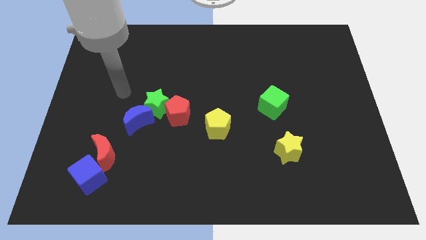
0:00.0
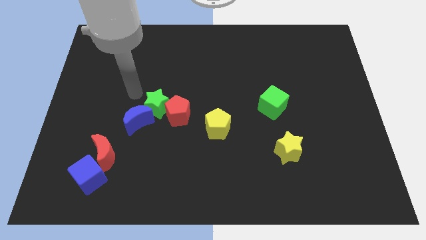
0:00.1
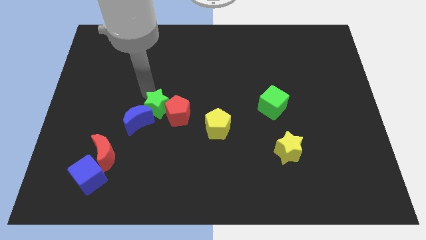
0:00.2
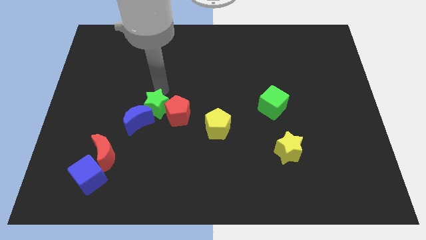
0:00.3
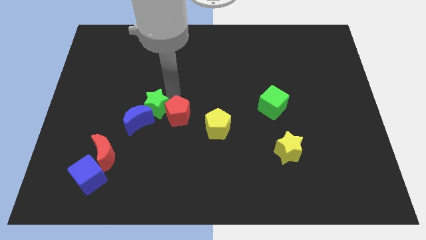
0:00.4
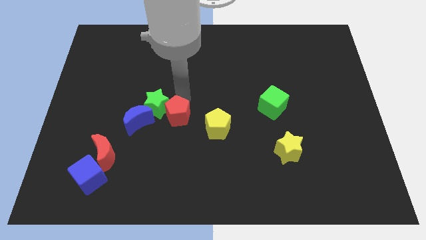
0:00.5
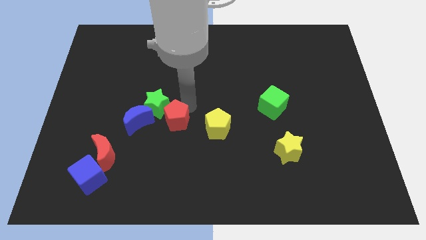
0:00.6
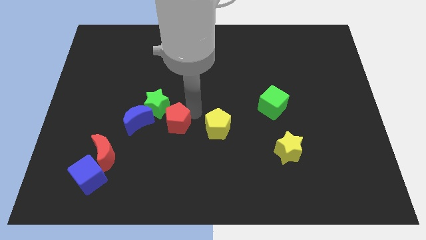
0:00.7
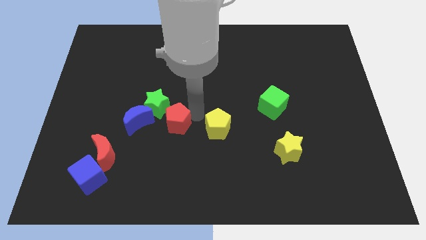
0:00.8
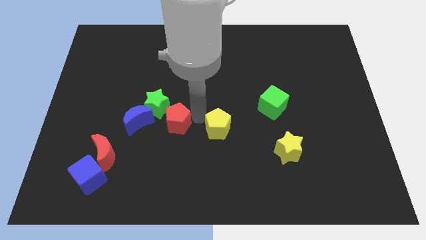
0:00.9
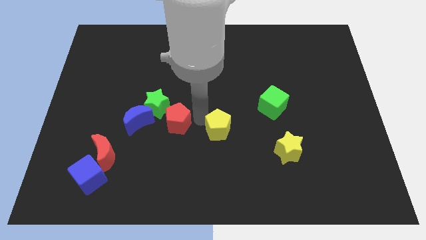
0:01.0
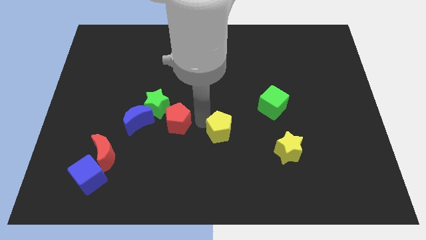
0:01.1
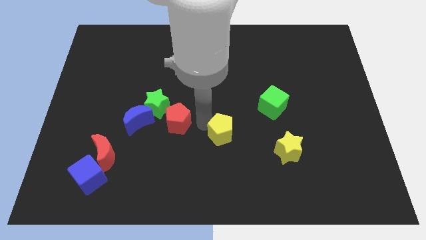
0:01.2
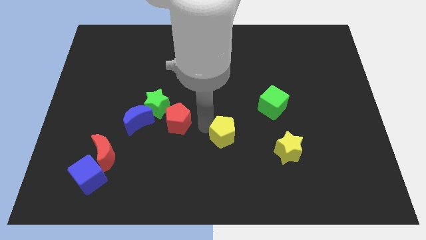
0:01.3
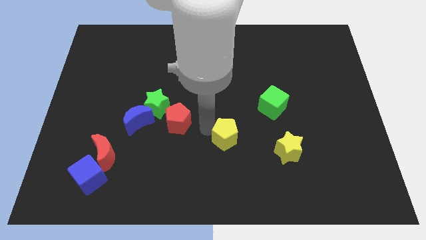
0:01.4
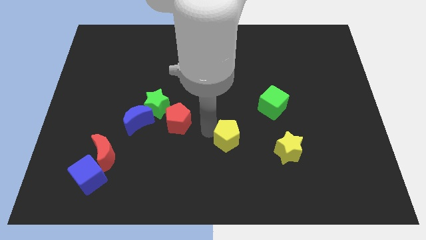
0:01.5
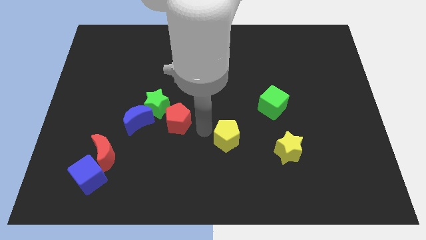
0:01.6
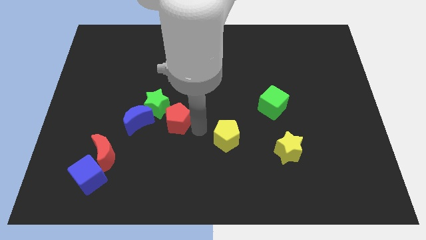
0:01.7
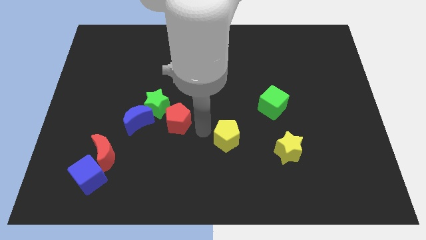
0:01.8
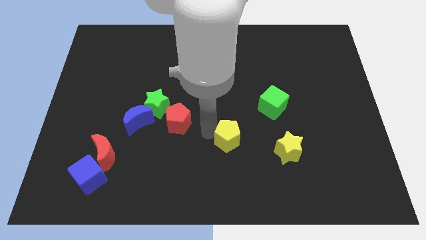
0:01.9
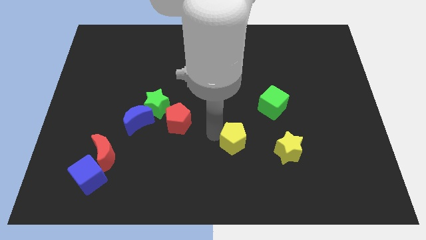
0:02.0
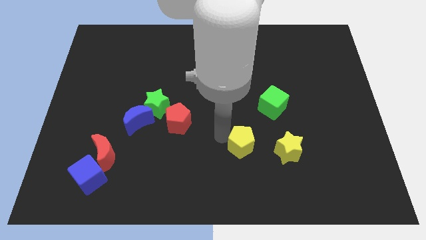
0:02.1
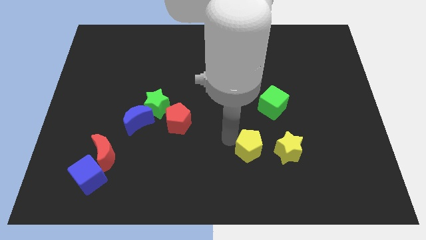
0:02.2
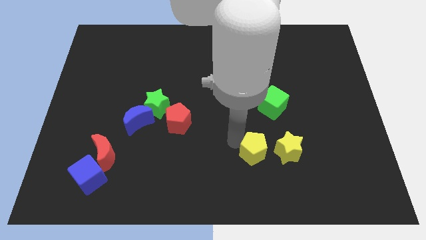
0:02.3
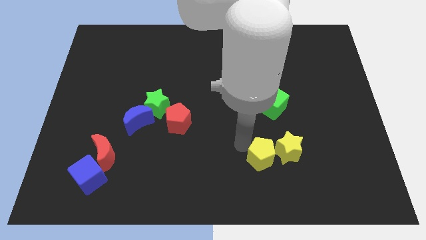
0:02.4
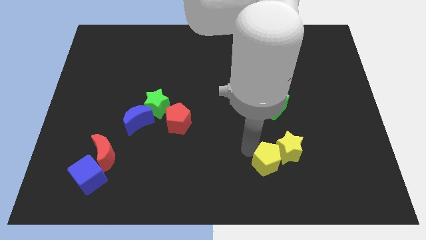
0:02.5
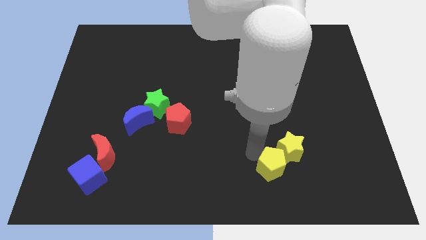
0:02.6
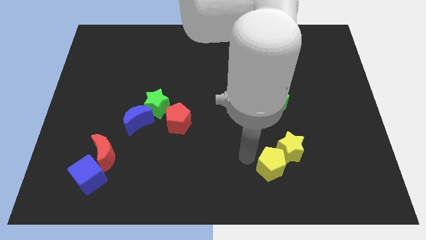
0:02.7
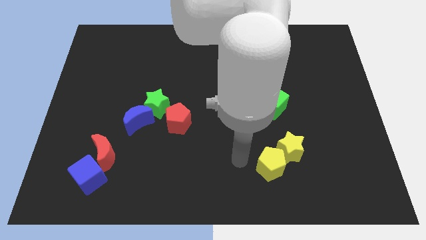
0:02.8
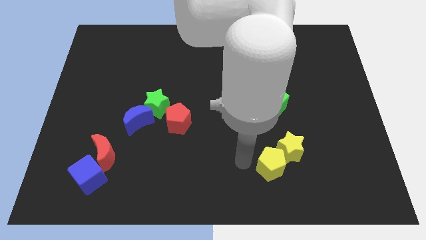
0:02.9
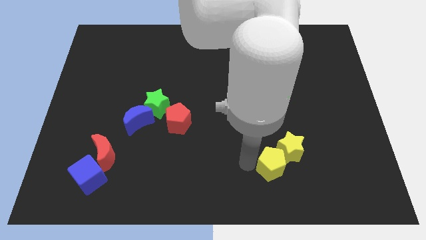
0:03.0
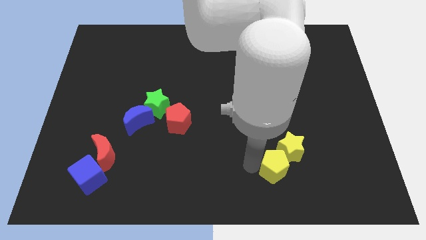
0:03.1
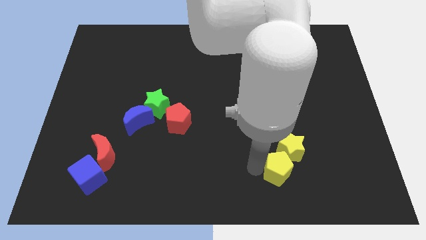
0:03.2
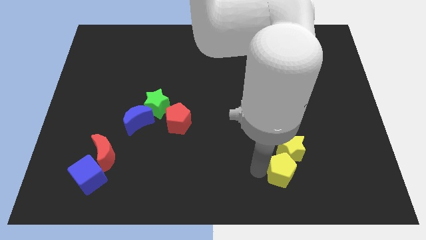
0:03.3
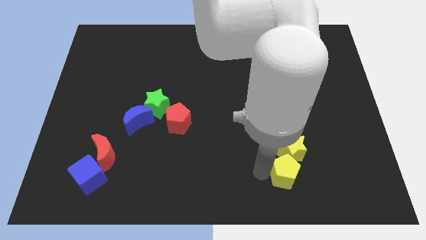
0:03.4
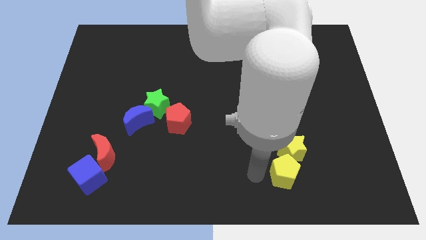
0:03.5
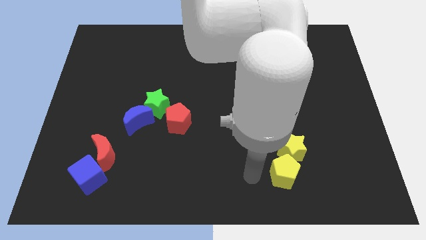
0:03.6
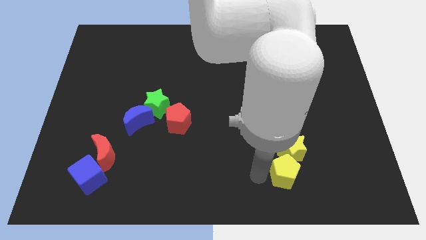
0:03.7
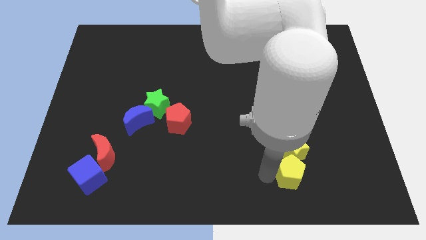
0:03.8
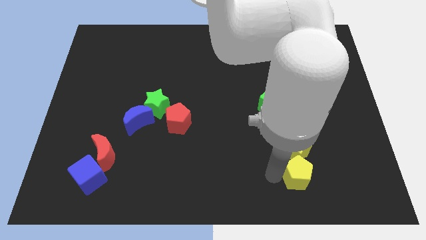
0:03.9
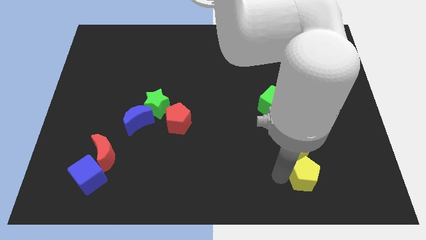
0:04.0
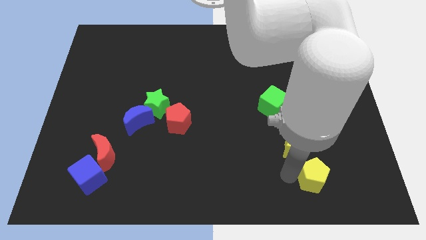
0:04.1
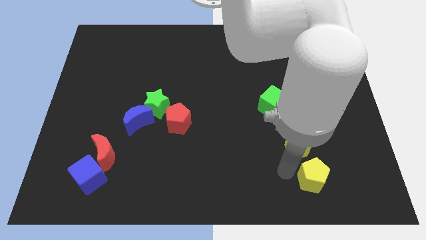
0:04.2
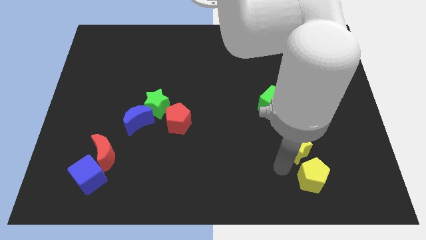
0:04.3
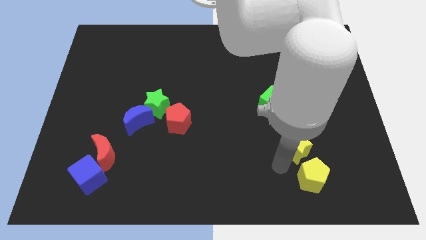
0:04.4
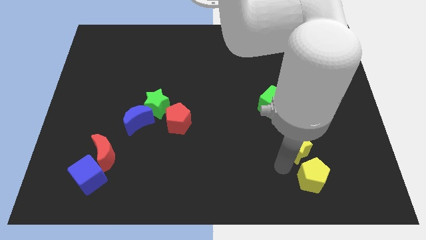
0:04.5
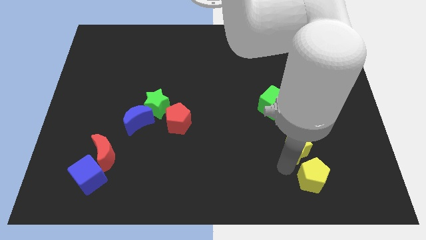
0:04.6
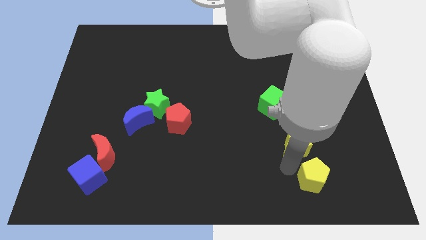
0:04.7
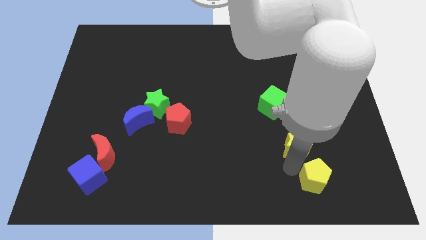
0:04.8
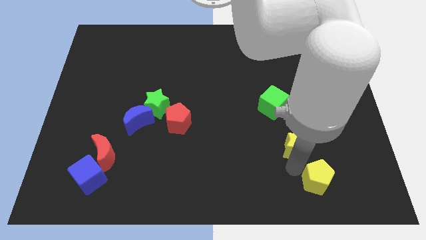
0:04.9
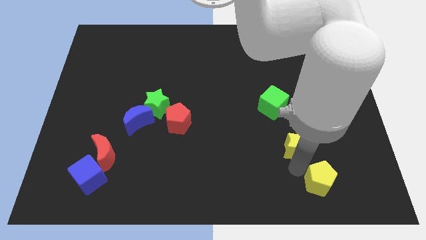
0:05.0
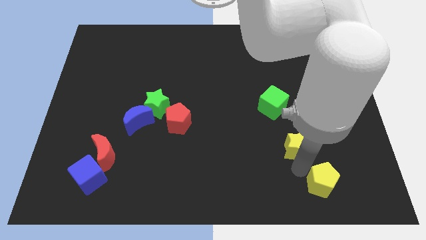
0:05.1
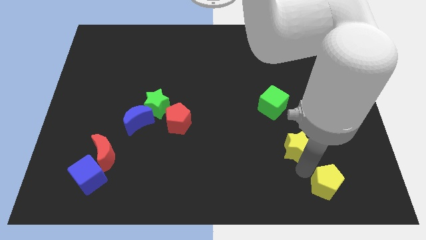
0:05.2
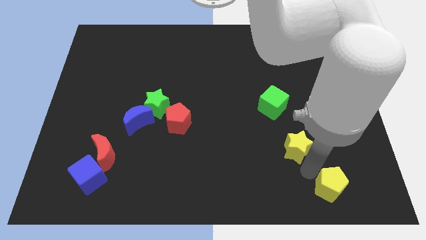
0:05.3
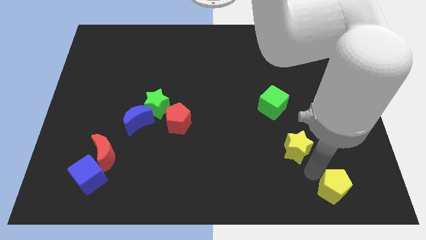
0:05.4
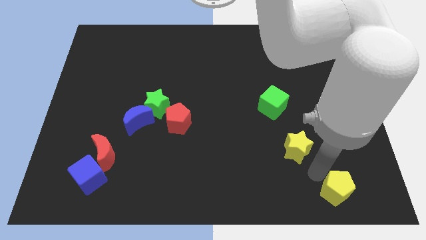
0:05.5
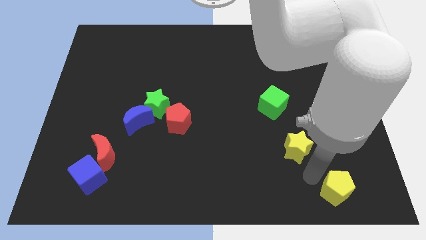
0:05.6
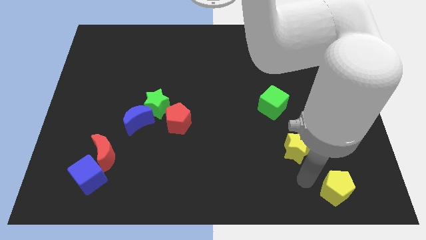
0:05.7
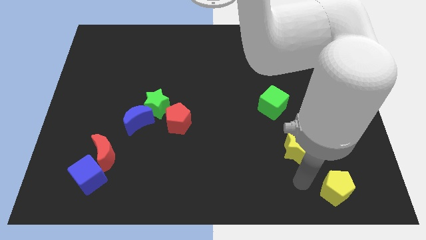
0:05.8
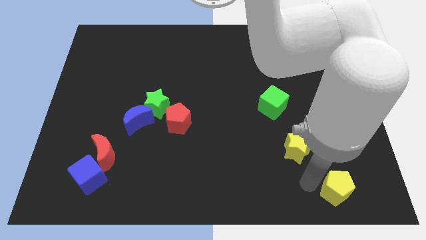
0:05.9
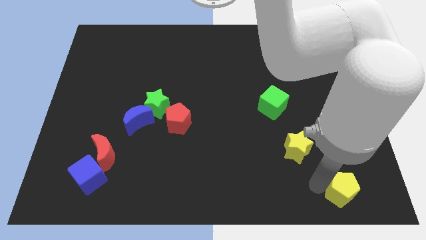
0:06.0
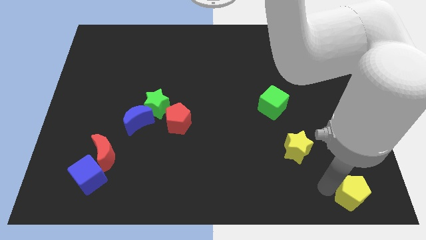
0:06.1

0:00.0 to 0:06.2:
push the yellow pentagon to the bottom right of the board

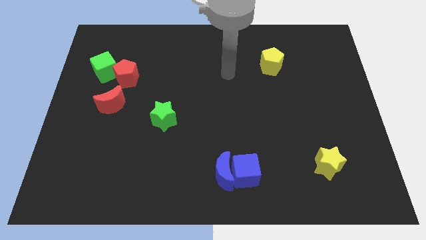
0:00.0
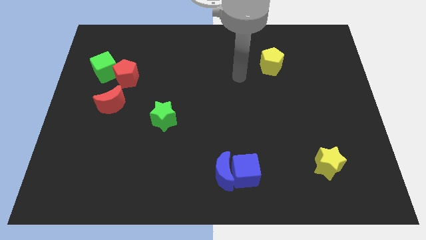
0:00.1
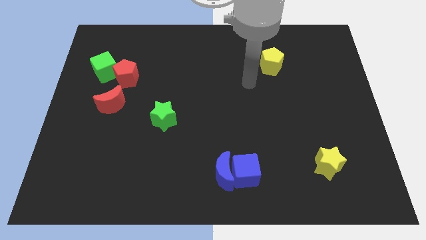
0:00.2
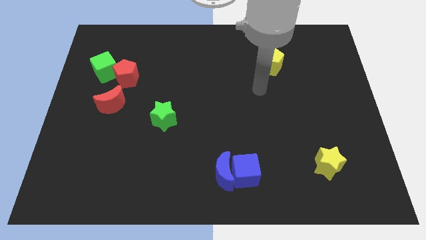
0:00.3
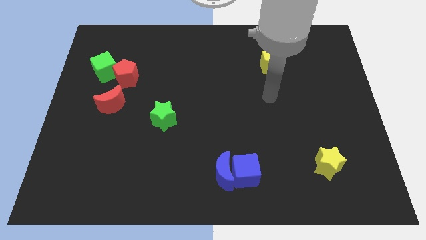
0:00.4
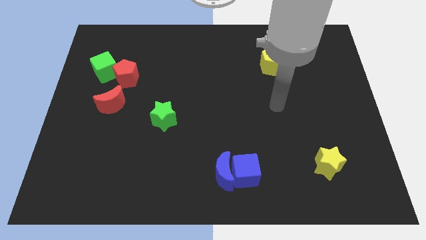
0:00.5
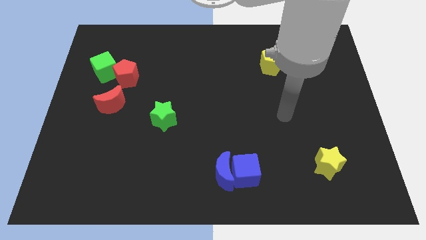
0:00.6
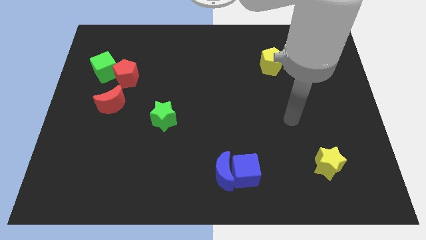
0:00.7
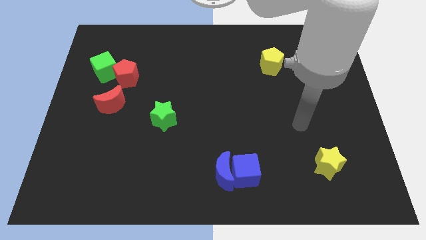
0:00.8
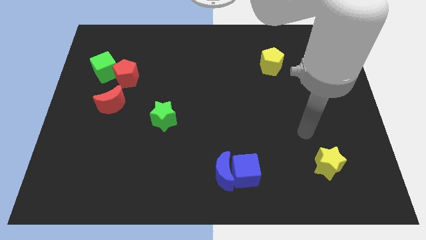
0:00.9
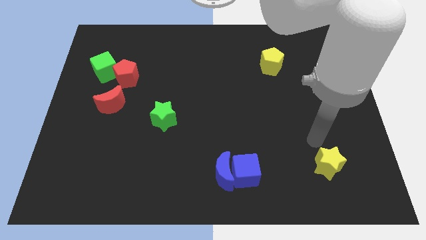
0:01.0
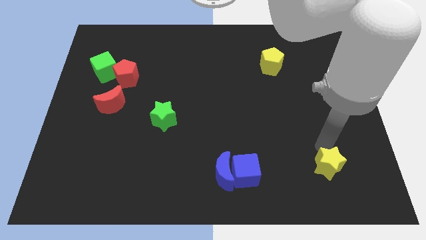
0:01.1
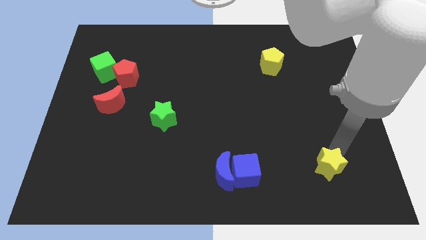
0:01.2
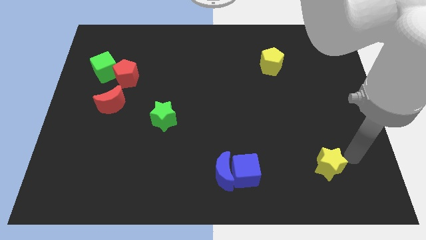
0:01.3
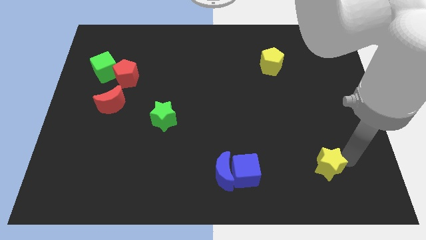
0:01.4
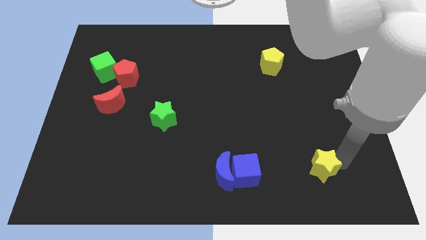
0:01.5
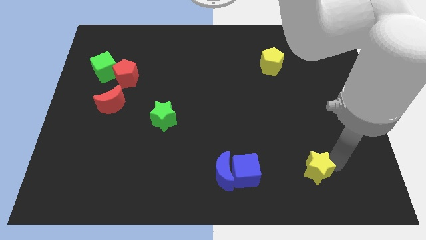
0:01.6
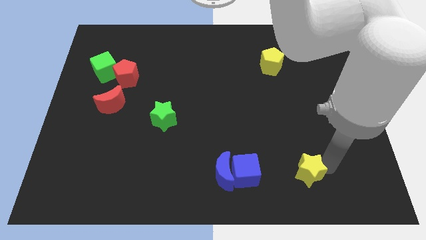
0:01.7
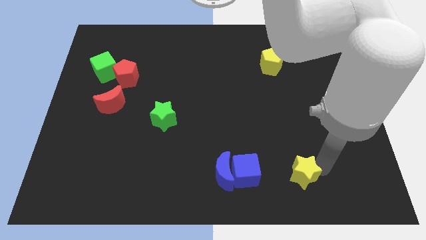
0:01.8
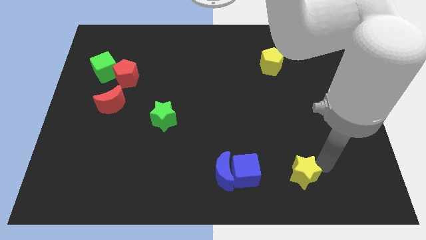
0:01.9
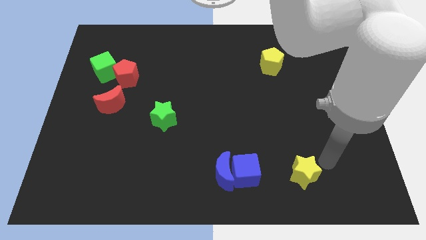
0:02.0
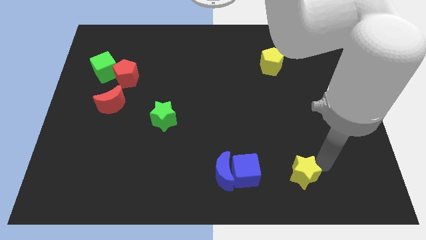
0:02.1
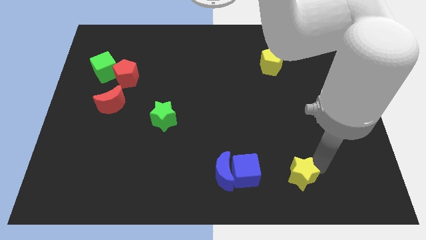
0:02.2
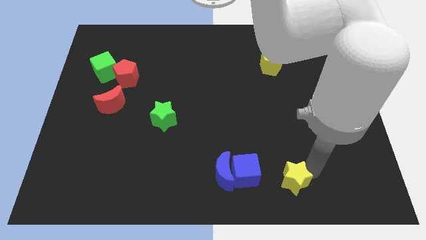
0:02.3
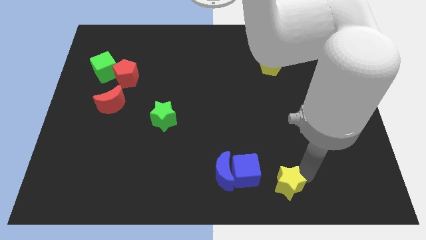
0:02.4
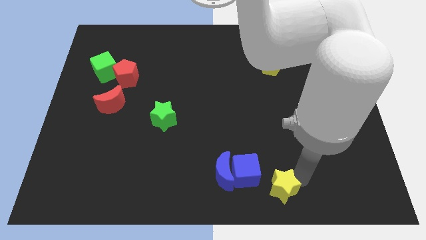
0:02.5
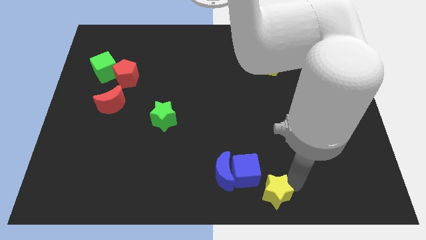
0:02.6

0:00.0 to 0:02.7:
put the yellow star to the bottom side
